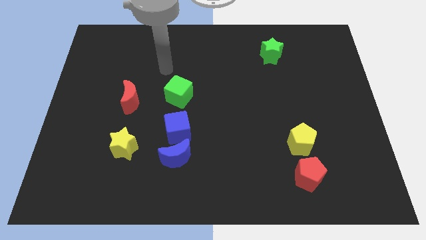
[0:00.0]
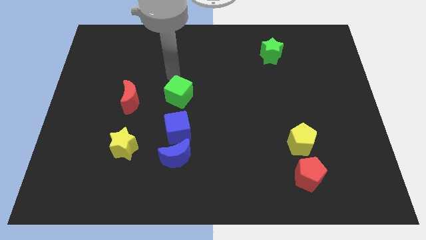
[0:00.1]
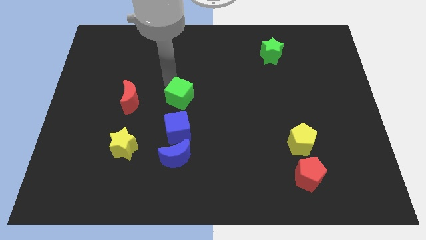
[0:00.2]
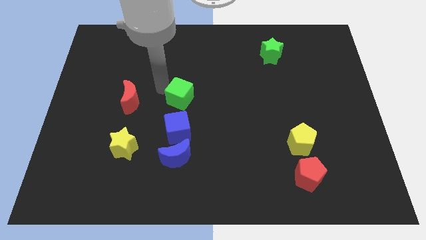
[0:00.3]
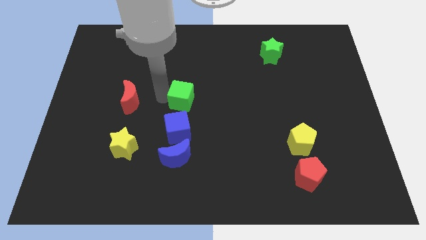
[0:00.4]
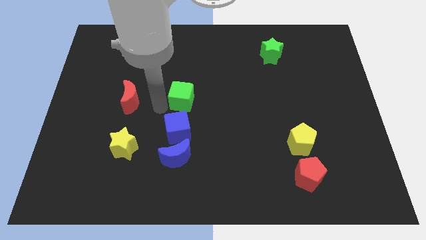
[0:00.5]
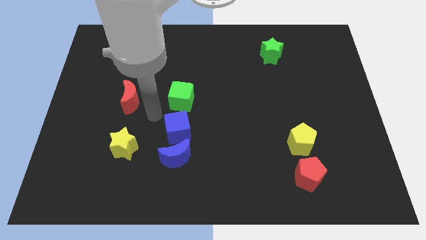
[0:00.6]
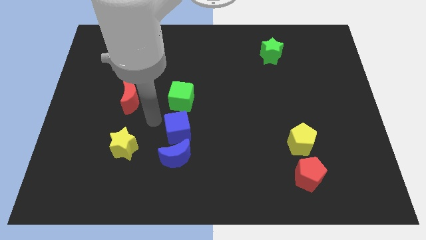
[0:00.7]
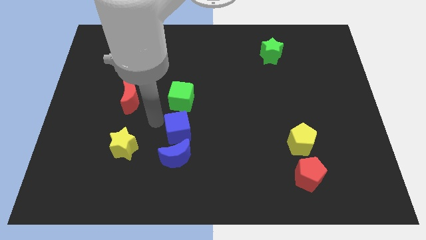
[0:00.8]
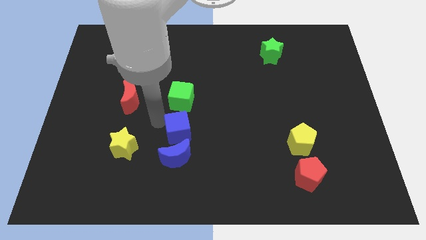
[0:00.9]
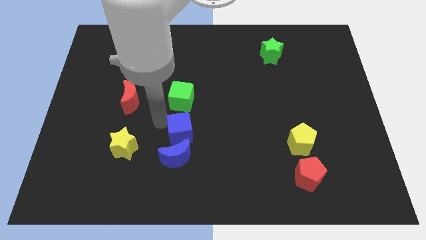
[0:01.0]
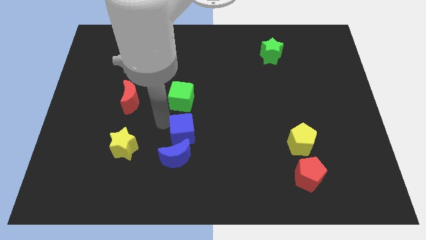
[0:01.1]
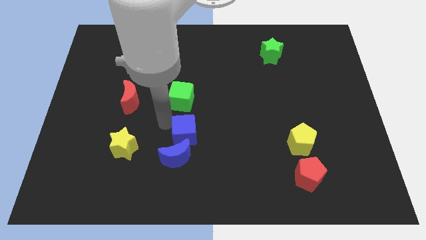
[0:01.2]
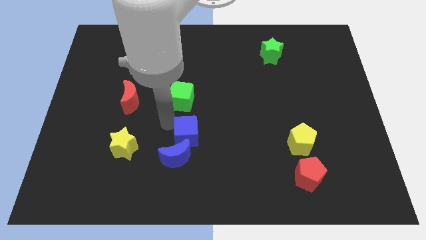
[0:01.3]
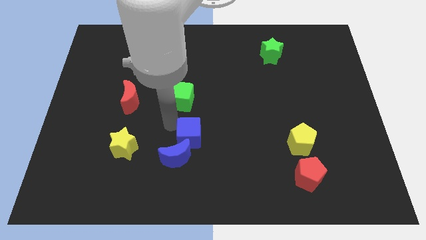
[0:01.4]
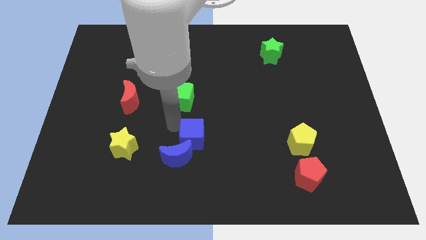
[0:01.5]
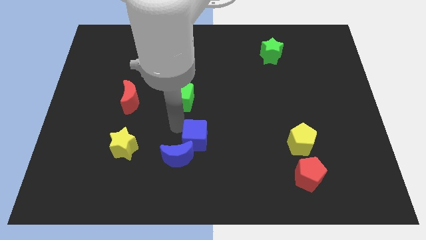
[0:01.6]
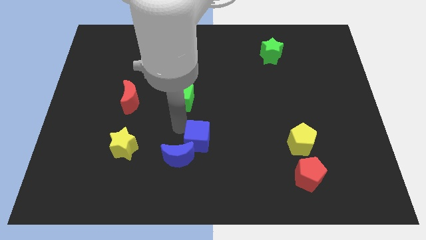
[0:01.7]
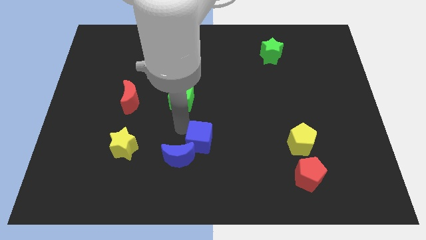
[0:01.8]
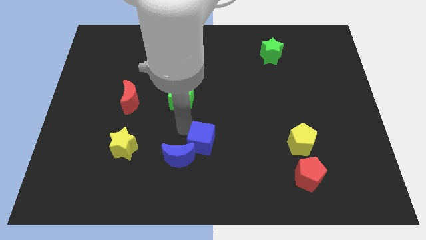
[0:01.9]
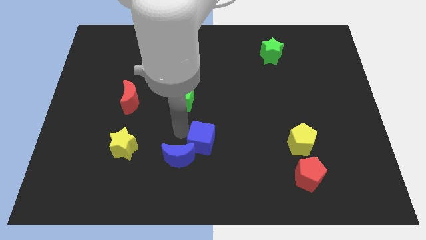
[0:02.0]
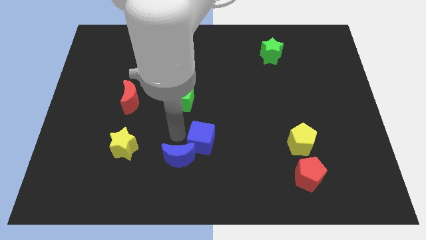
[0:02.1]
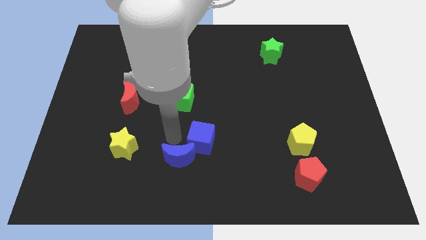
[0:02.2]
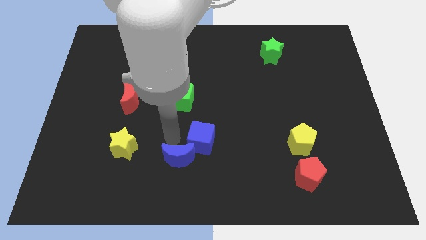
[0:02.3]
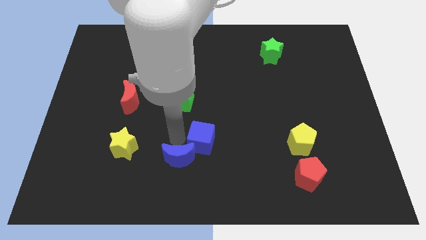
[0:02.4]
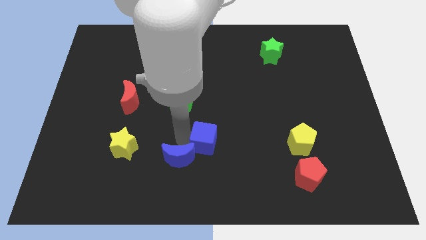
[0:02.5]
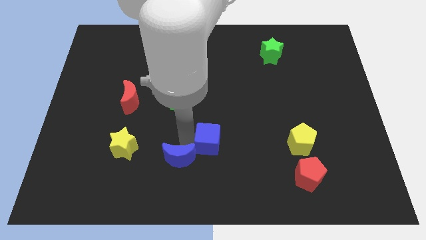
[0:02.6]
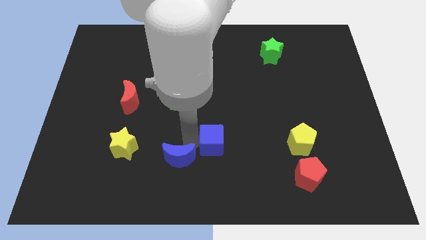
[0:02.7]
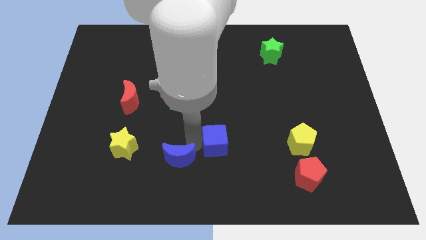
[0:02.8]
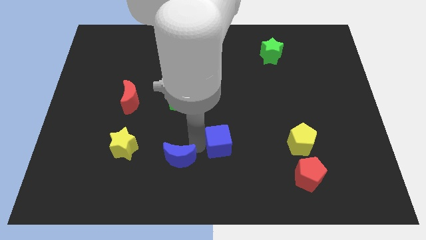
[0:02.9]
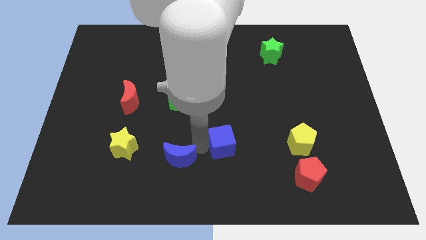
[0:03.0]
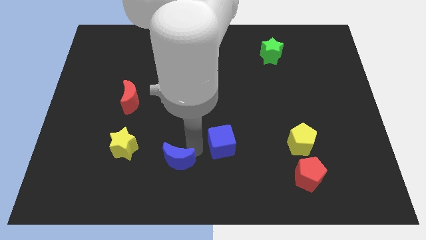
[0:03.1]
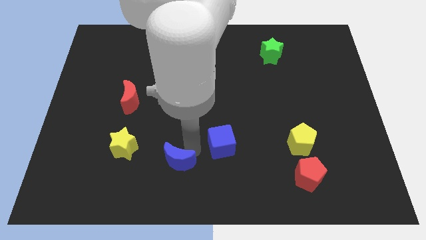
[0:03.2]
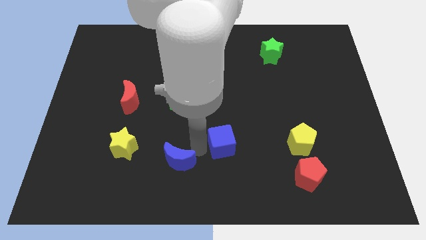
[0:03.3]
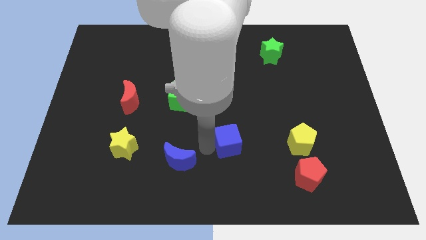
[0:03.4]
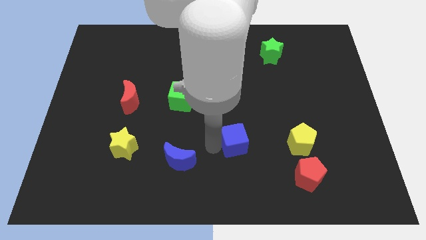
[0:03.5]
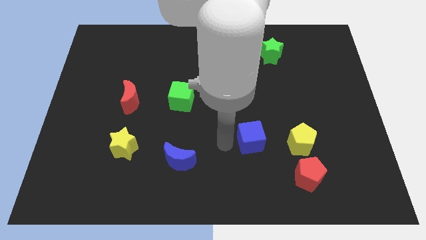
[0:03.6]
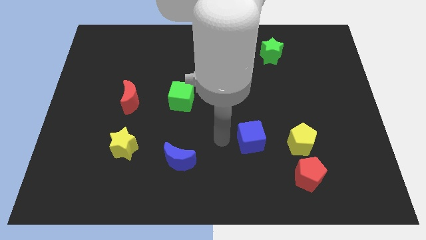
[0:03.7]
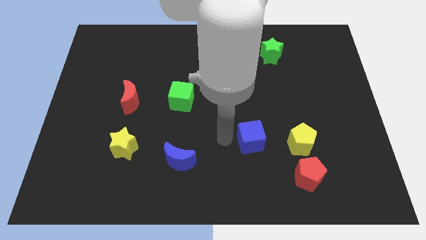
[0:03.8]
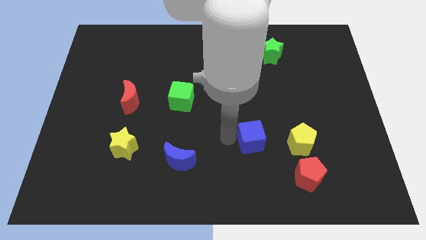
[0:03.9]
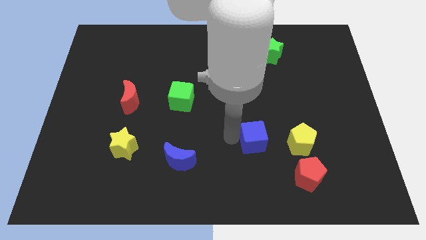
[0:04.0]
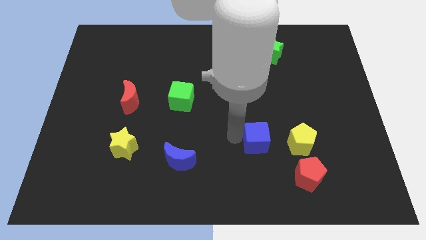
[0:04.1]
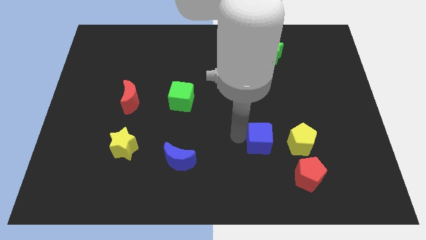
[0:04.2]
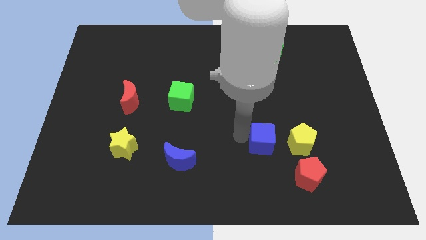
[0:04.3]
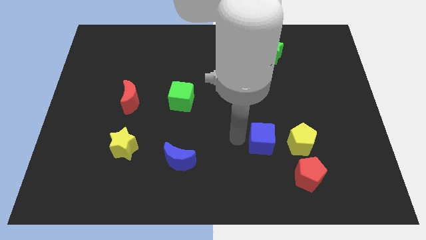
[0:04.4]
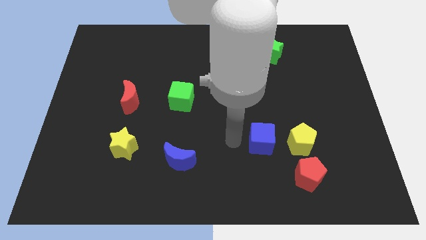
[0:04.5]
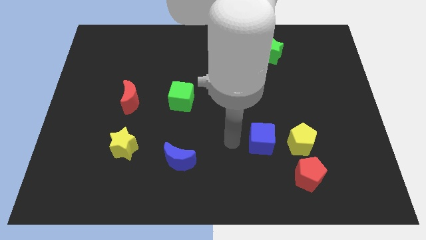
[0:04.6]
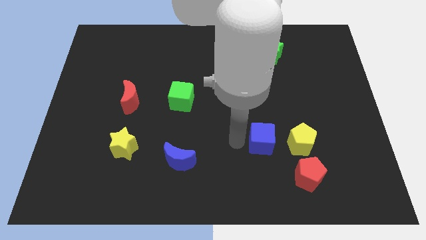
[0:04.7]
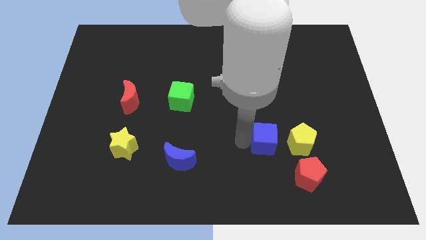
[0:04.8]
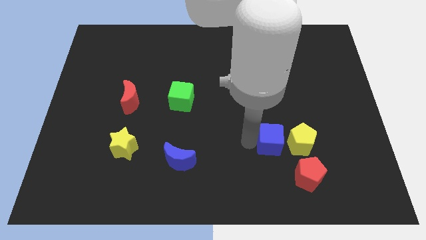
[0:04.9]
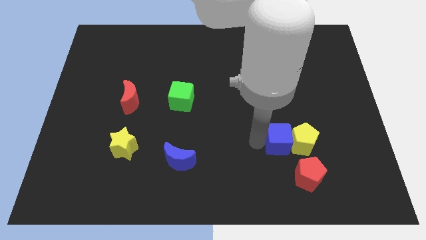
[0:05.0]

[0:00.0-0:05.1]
put the blue cube towards the yellow pentagon

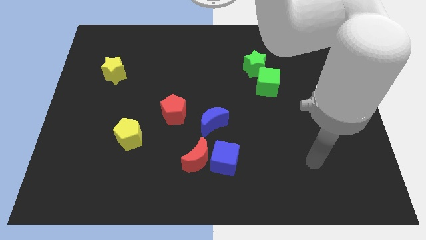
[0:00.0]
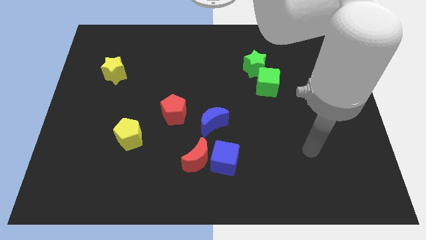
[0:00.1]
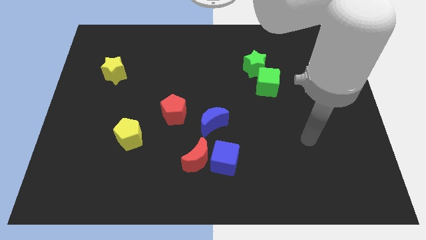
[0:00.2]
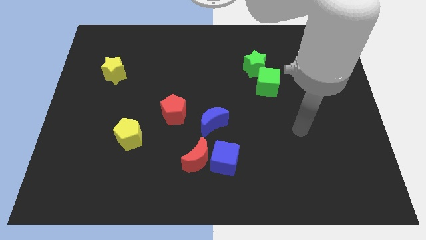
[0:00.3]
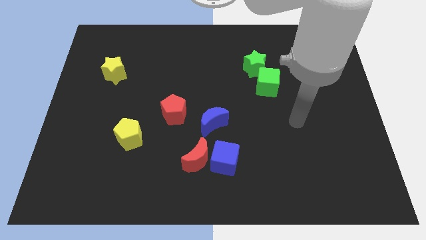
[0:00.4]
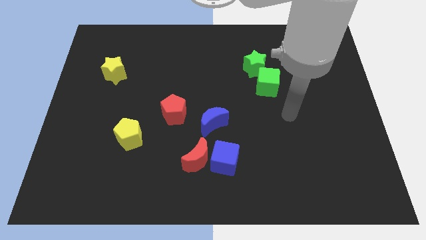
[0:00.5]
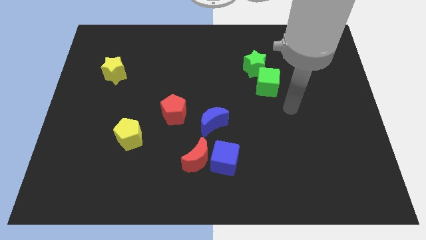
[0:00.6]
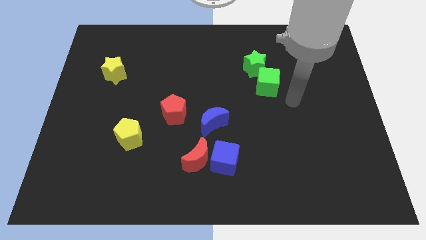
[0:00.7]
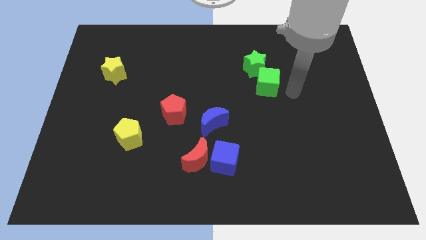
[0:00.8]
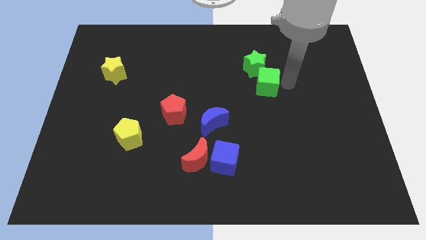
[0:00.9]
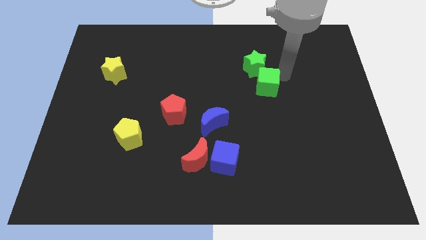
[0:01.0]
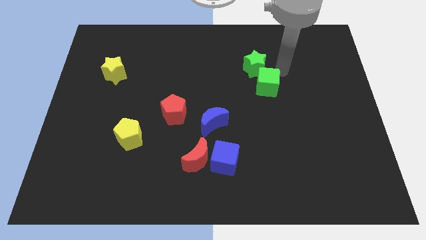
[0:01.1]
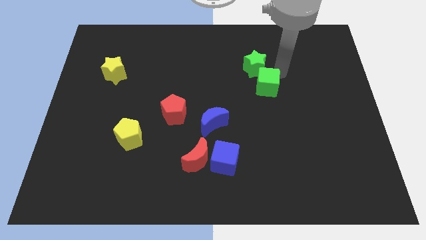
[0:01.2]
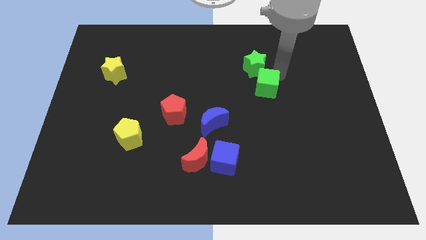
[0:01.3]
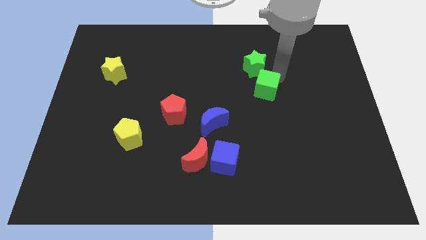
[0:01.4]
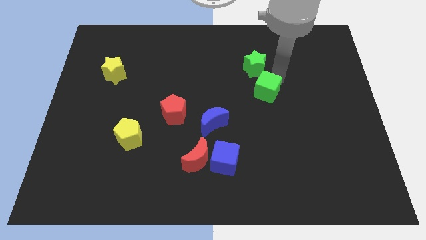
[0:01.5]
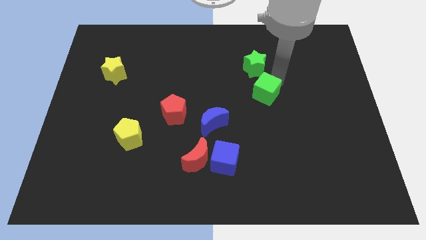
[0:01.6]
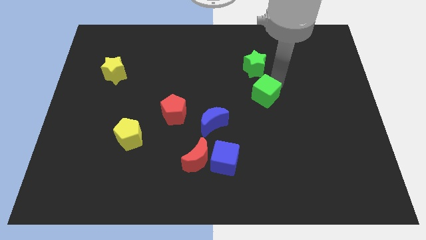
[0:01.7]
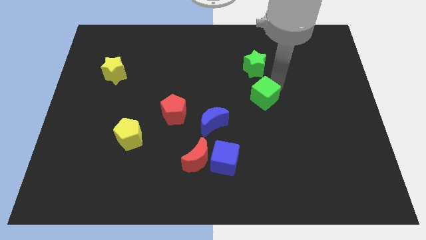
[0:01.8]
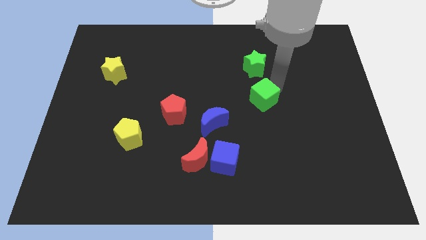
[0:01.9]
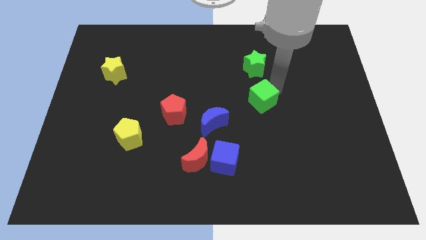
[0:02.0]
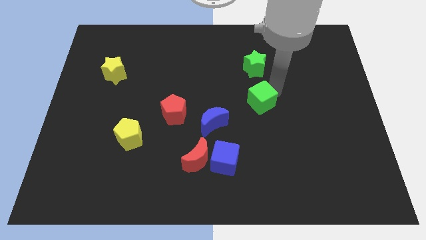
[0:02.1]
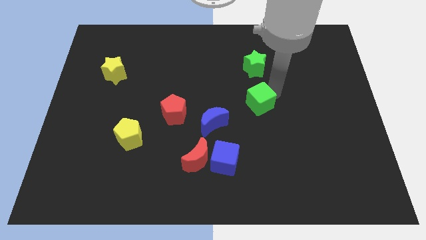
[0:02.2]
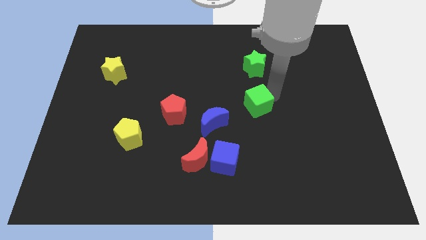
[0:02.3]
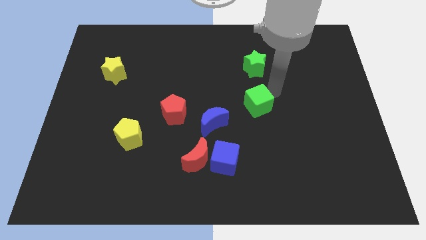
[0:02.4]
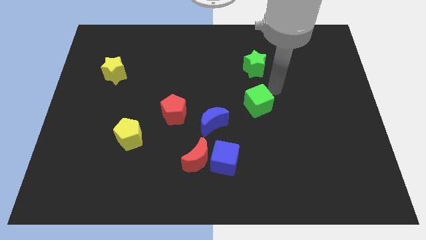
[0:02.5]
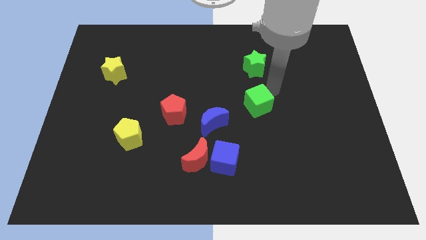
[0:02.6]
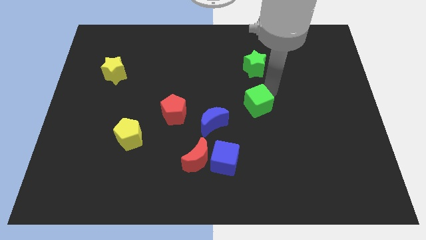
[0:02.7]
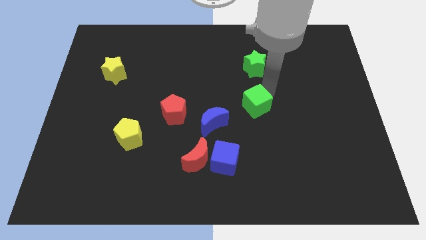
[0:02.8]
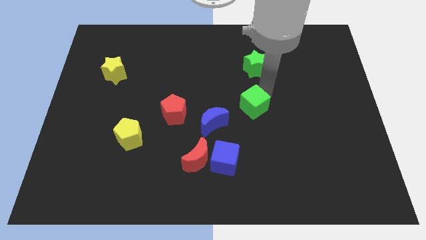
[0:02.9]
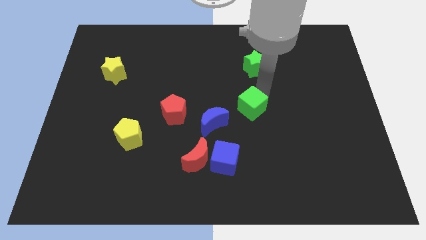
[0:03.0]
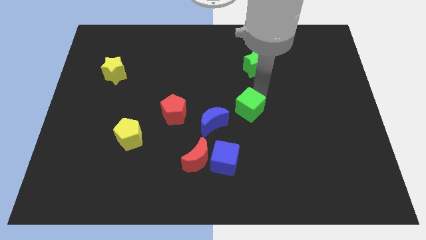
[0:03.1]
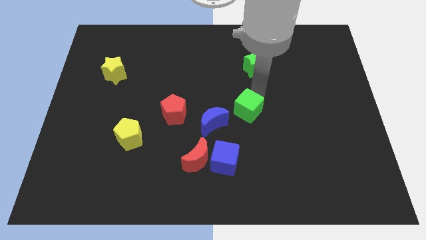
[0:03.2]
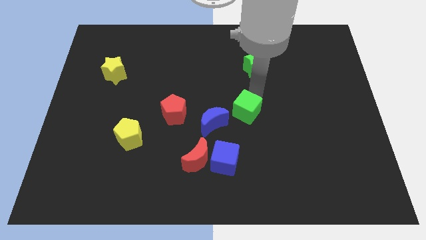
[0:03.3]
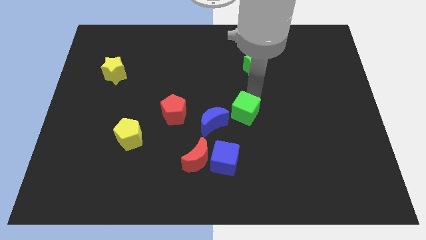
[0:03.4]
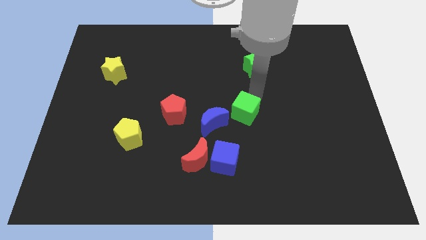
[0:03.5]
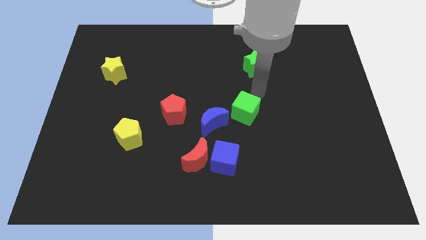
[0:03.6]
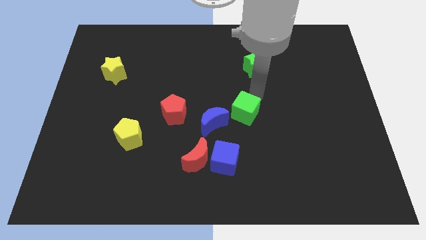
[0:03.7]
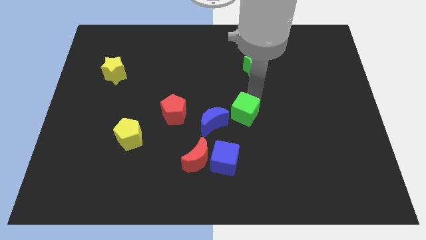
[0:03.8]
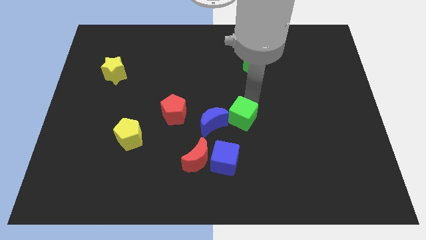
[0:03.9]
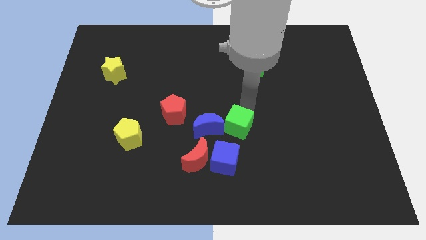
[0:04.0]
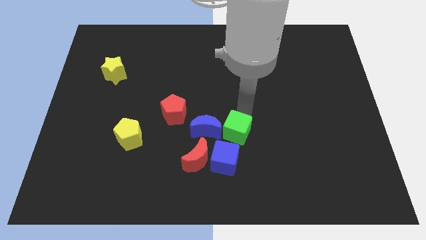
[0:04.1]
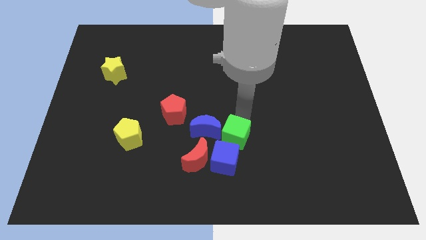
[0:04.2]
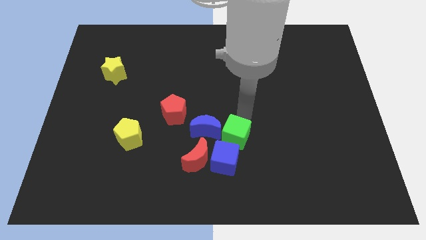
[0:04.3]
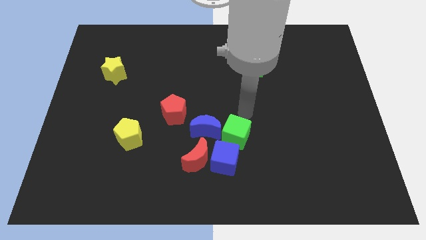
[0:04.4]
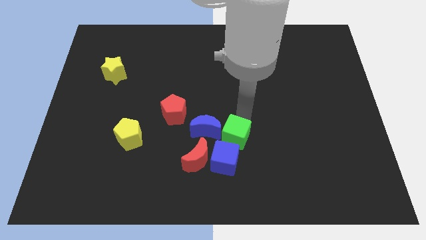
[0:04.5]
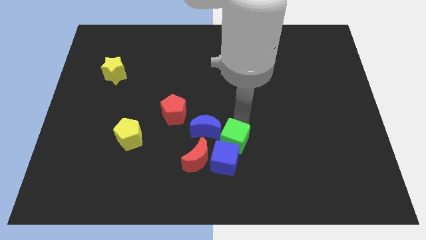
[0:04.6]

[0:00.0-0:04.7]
slide the green cube next to the blue cube
